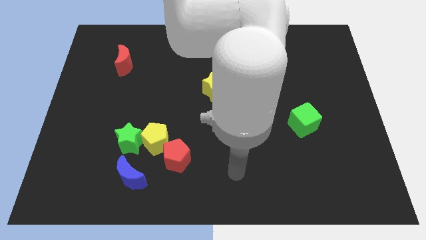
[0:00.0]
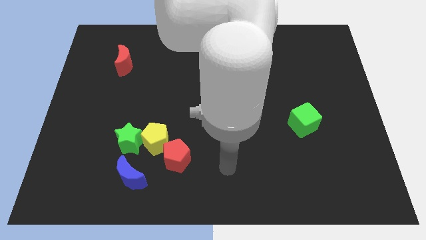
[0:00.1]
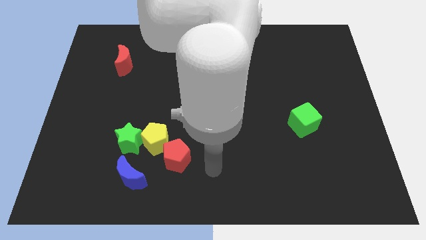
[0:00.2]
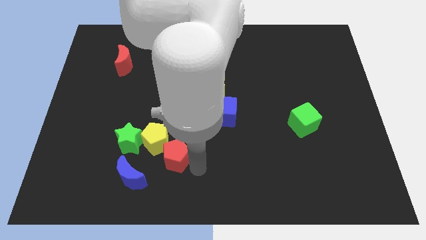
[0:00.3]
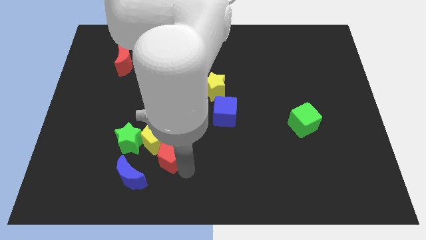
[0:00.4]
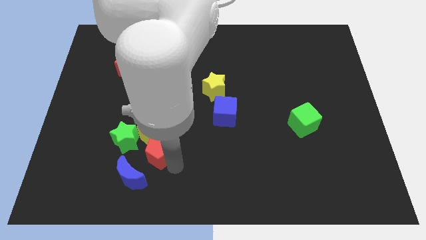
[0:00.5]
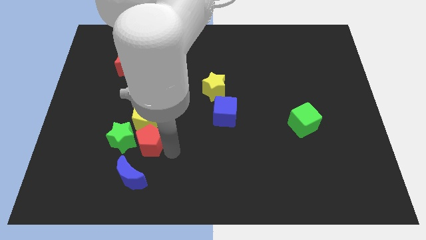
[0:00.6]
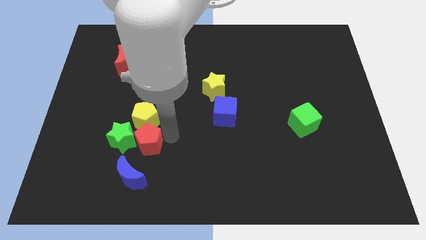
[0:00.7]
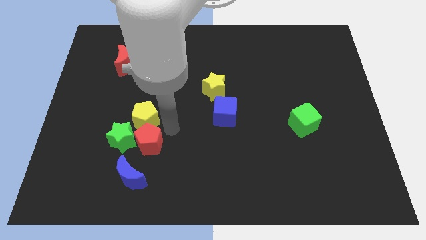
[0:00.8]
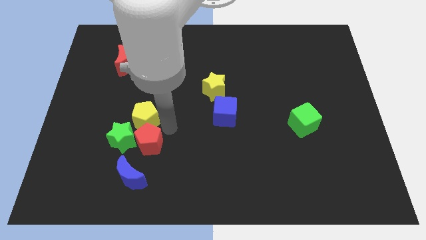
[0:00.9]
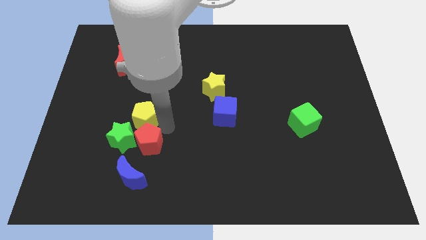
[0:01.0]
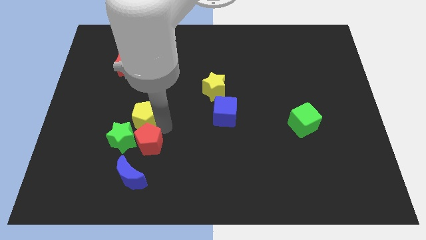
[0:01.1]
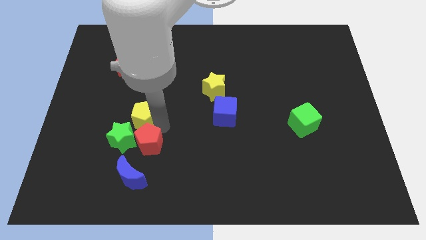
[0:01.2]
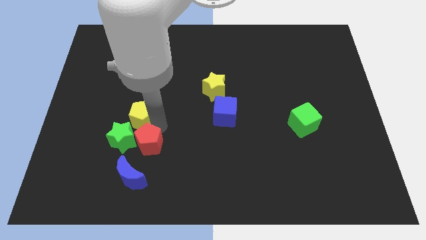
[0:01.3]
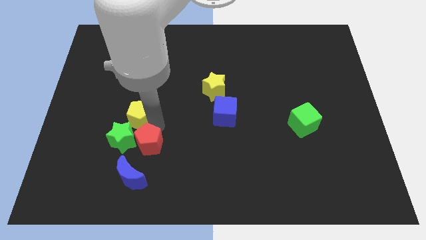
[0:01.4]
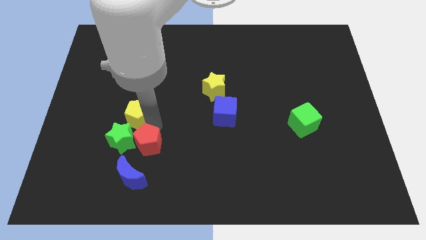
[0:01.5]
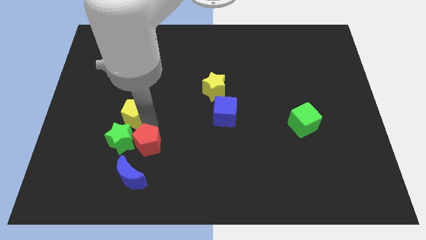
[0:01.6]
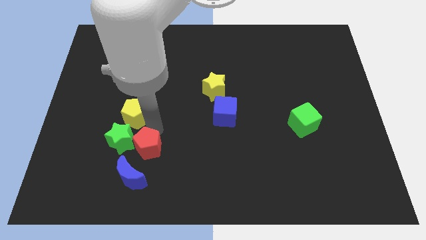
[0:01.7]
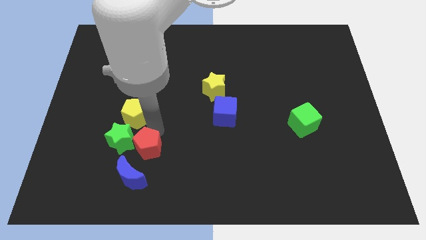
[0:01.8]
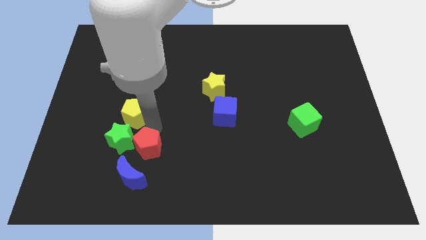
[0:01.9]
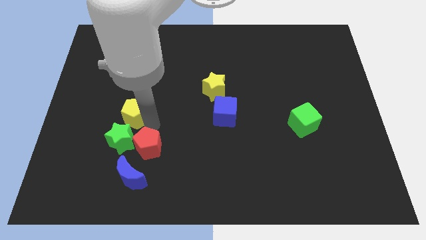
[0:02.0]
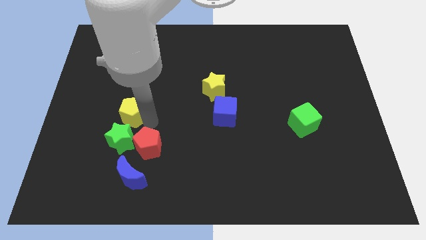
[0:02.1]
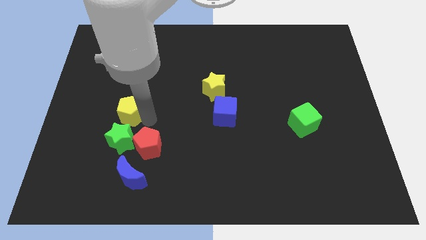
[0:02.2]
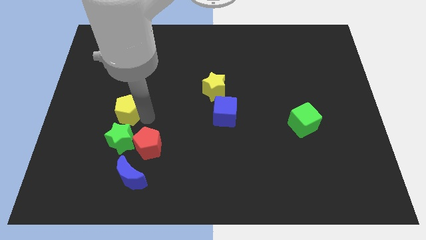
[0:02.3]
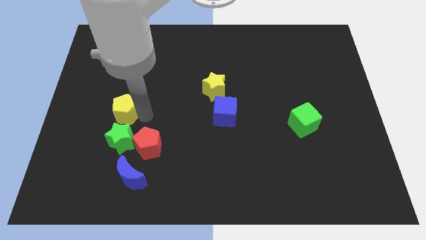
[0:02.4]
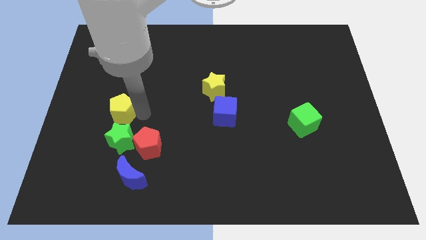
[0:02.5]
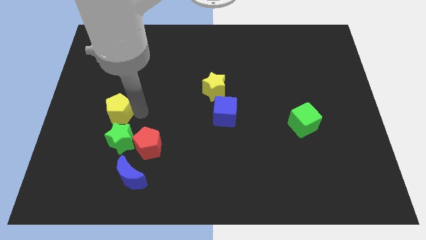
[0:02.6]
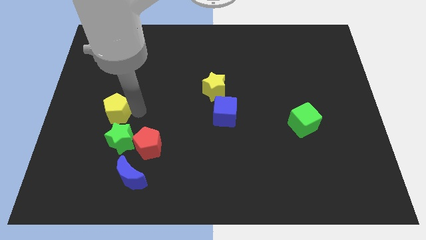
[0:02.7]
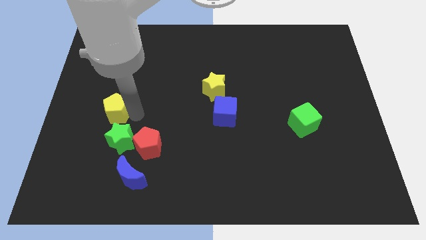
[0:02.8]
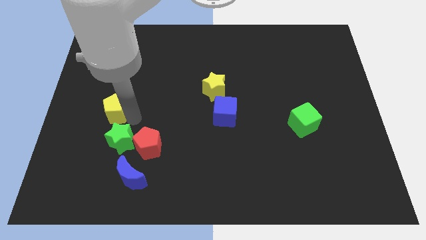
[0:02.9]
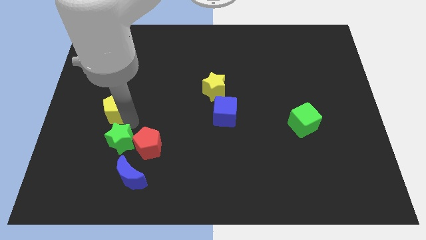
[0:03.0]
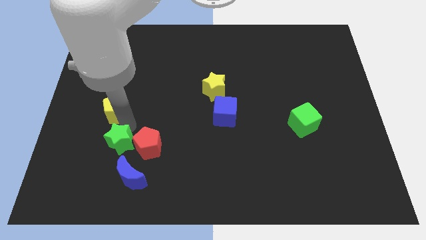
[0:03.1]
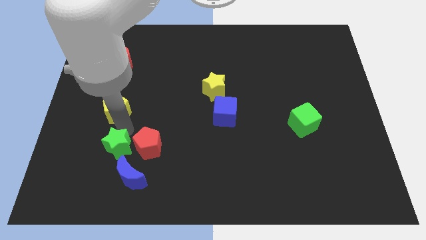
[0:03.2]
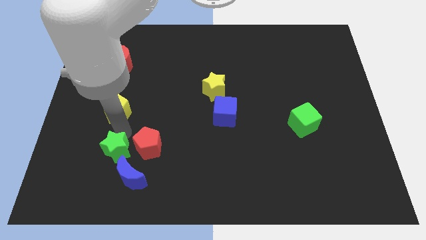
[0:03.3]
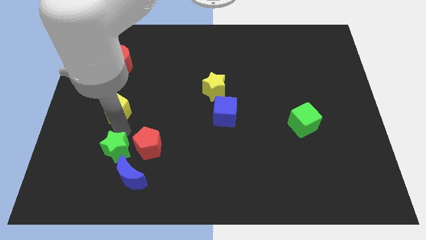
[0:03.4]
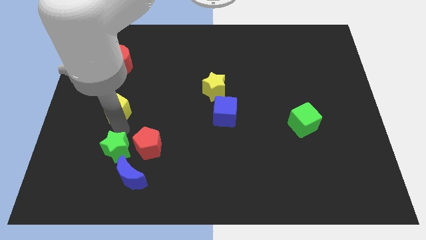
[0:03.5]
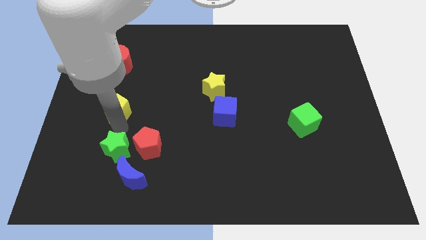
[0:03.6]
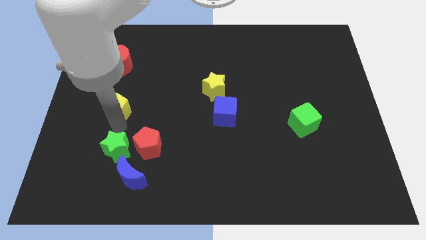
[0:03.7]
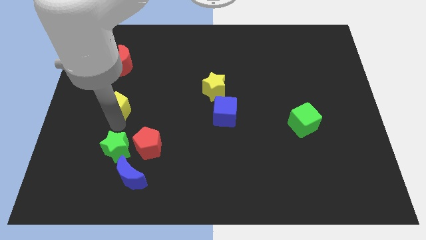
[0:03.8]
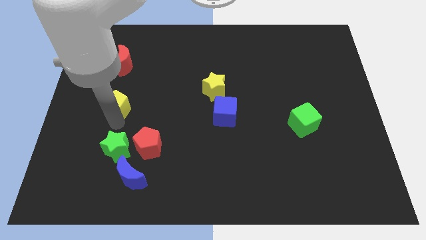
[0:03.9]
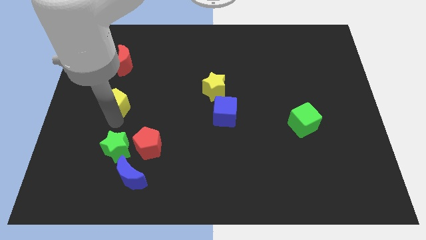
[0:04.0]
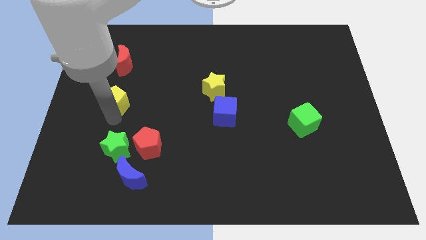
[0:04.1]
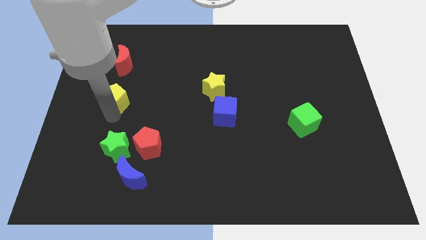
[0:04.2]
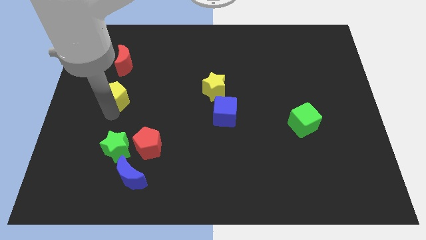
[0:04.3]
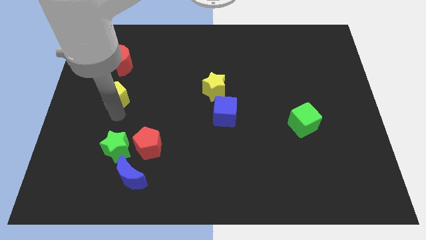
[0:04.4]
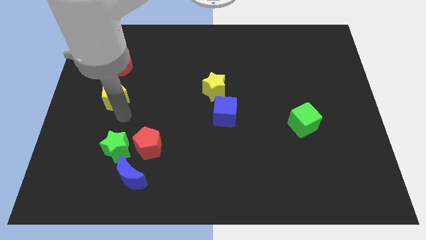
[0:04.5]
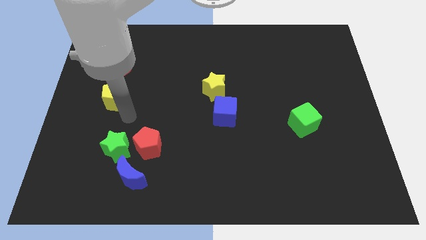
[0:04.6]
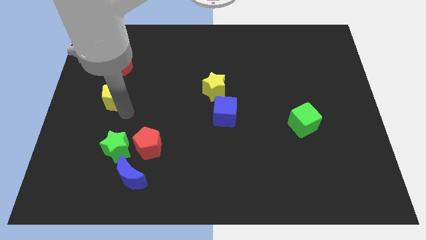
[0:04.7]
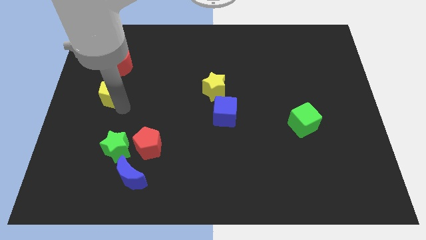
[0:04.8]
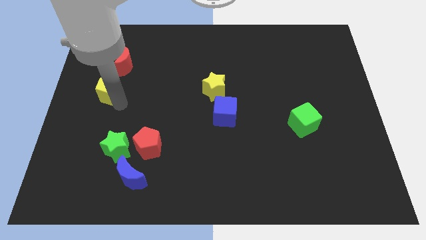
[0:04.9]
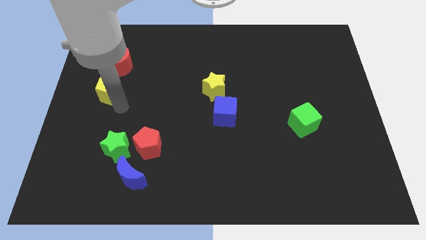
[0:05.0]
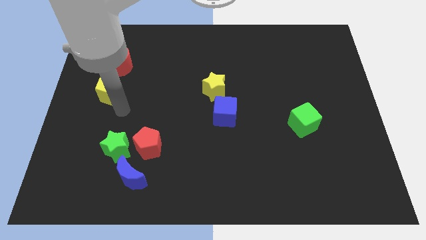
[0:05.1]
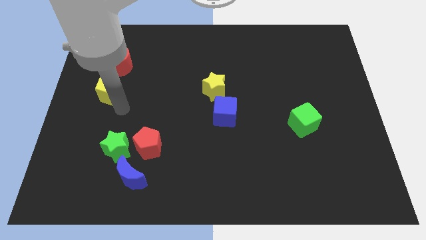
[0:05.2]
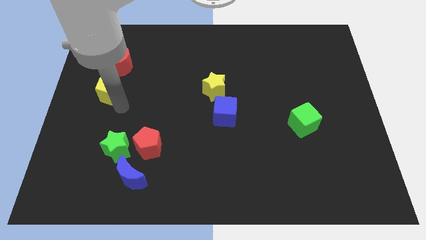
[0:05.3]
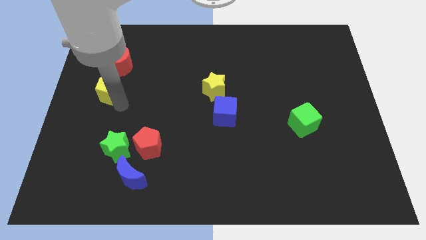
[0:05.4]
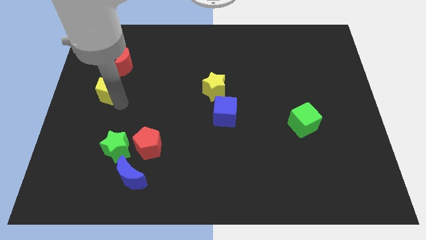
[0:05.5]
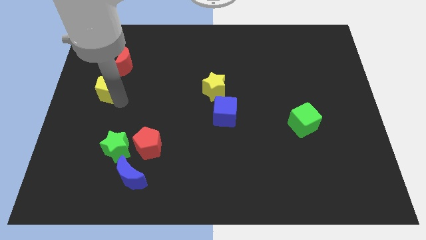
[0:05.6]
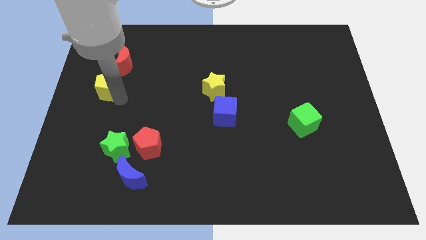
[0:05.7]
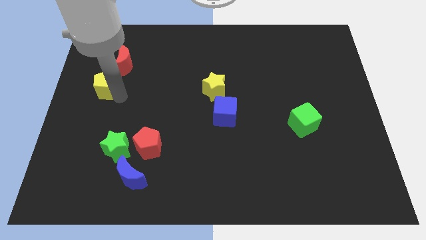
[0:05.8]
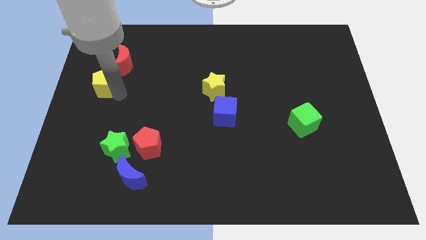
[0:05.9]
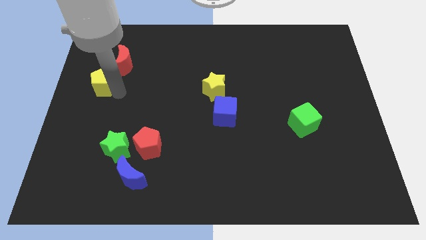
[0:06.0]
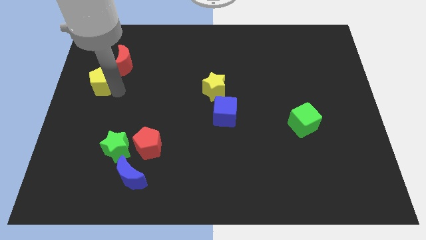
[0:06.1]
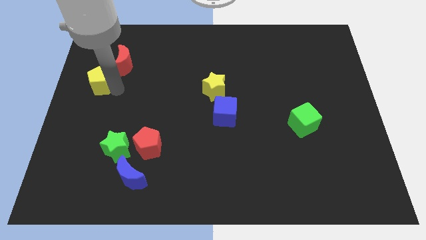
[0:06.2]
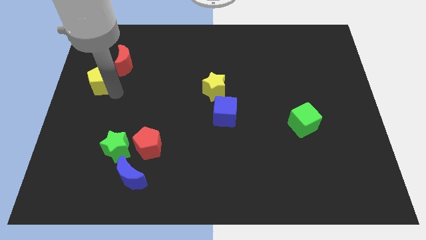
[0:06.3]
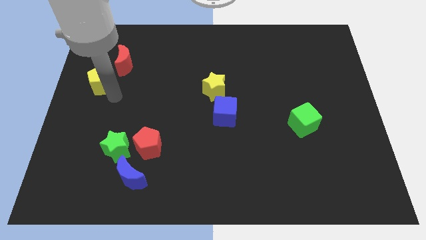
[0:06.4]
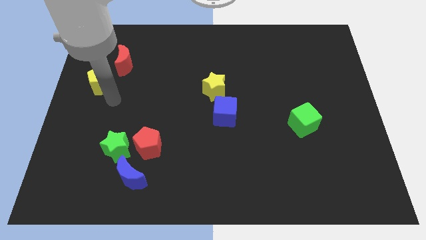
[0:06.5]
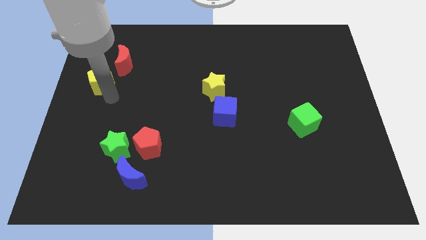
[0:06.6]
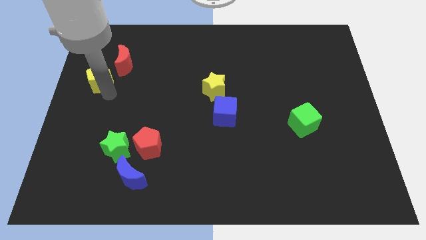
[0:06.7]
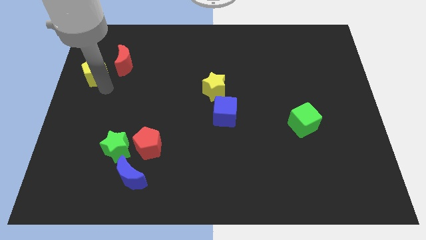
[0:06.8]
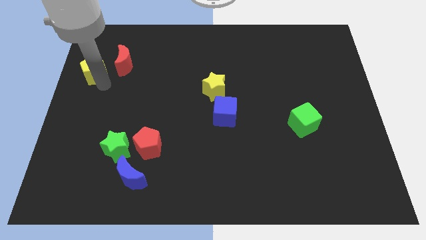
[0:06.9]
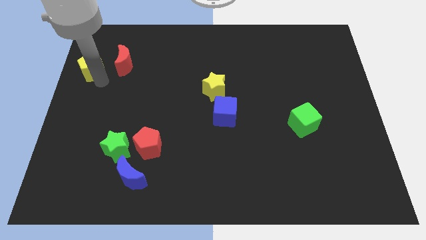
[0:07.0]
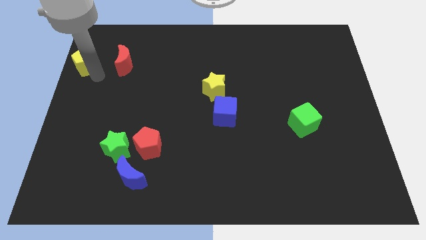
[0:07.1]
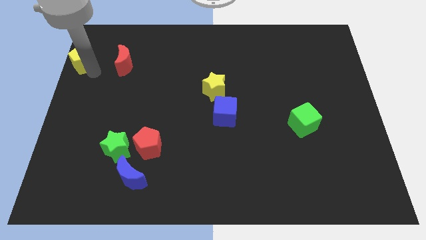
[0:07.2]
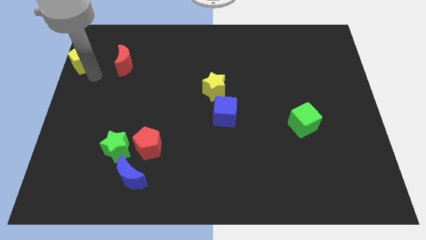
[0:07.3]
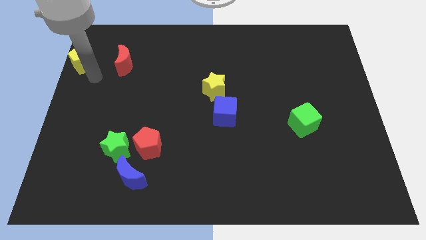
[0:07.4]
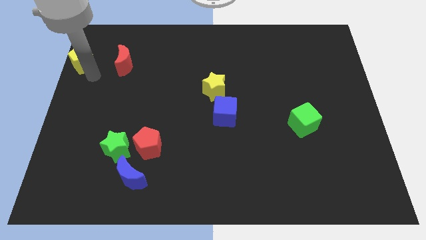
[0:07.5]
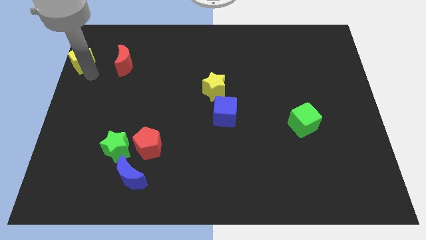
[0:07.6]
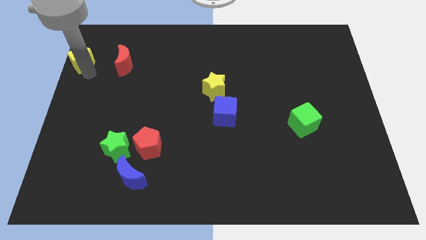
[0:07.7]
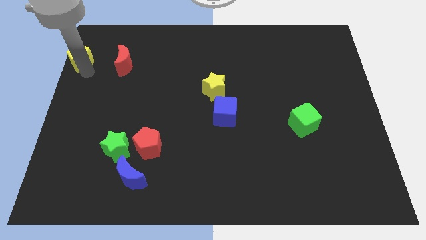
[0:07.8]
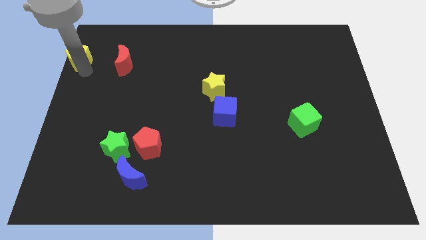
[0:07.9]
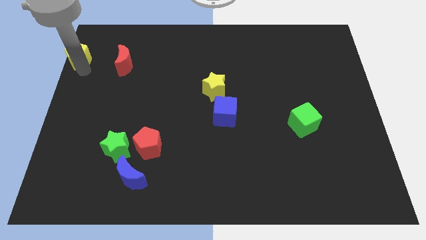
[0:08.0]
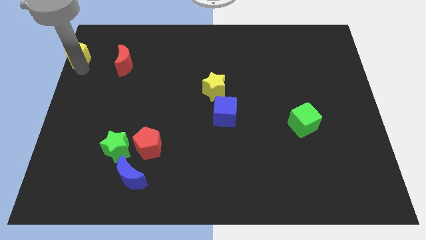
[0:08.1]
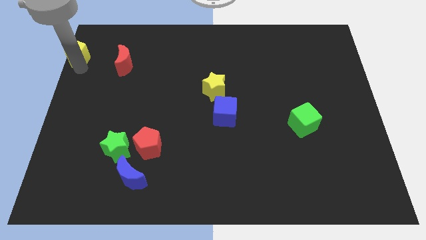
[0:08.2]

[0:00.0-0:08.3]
put the yellow pentagon to the top left corner
